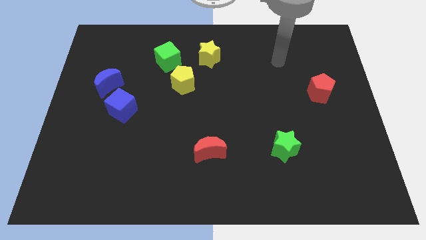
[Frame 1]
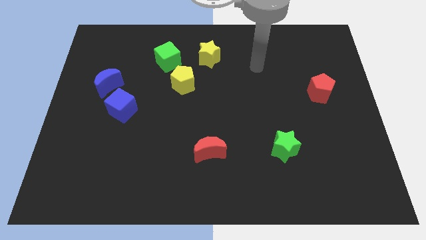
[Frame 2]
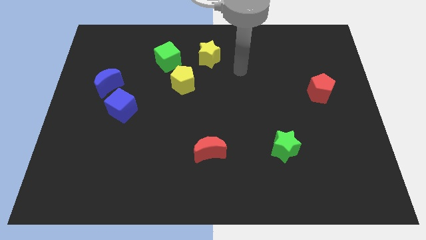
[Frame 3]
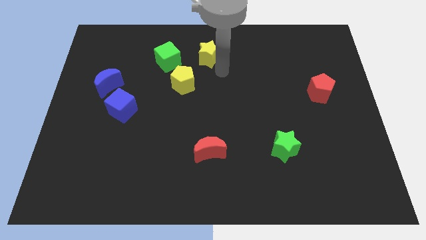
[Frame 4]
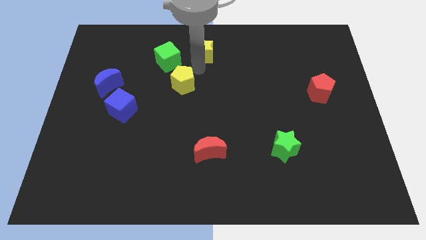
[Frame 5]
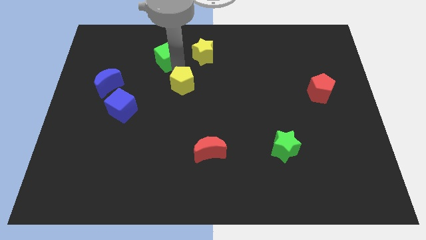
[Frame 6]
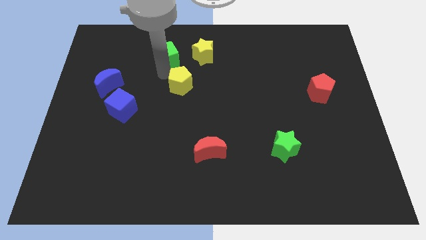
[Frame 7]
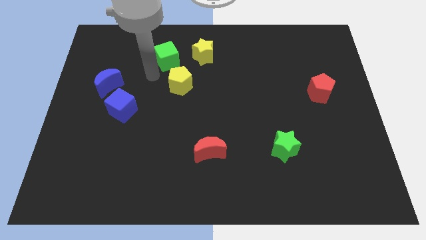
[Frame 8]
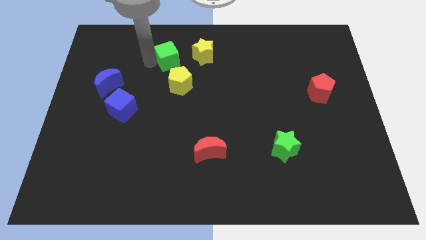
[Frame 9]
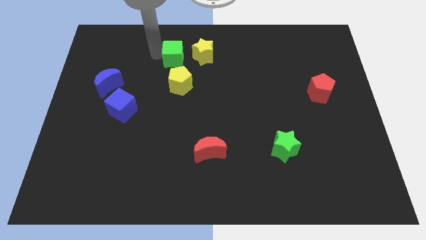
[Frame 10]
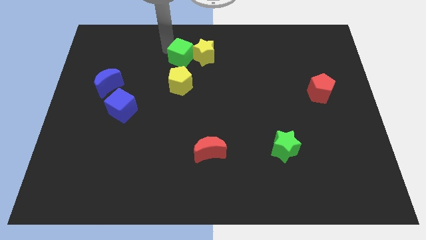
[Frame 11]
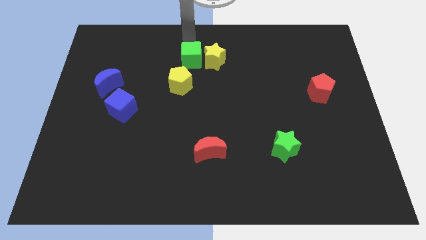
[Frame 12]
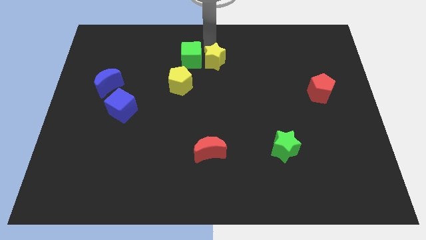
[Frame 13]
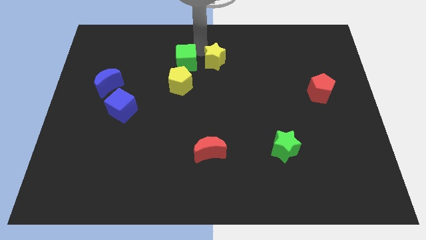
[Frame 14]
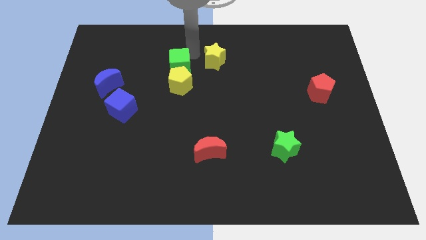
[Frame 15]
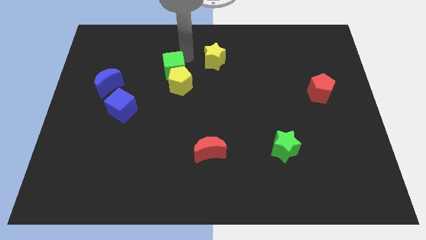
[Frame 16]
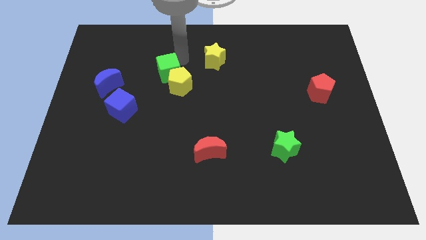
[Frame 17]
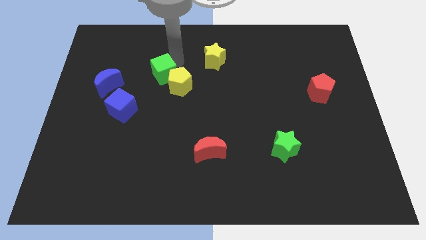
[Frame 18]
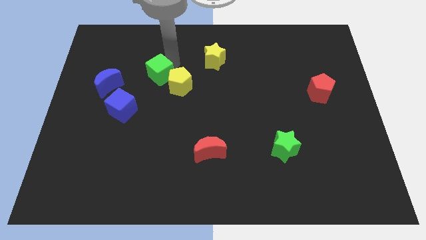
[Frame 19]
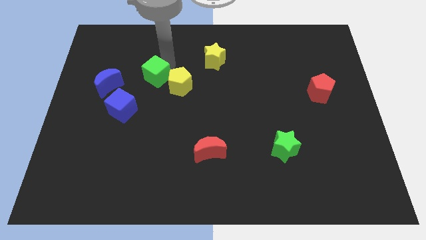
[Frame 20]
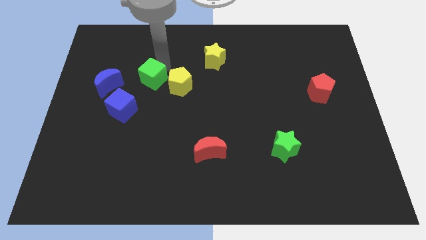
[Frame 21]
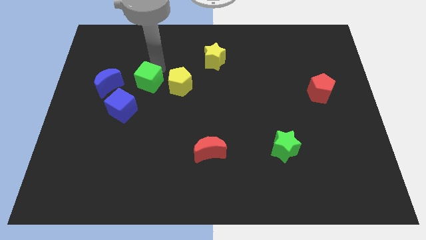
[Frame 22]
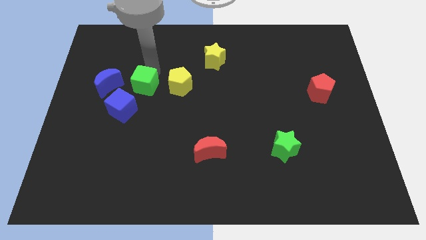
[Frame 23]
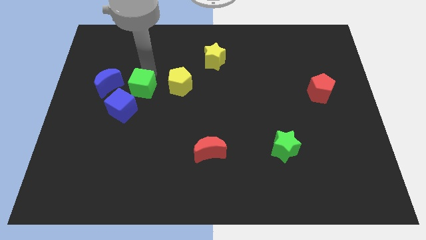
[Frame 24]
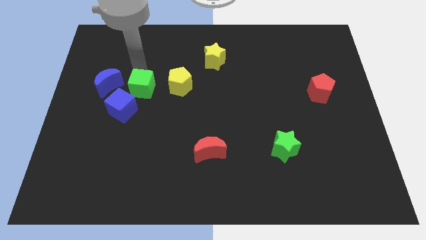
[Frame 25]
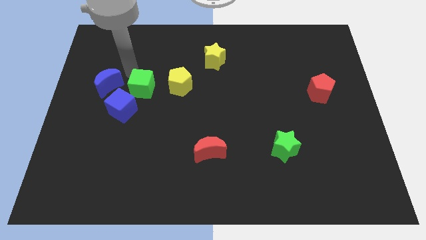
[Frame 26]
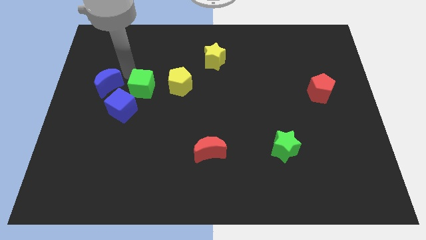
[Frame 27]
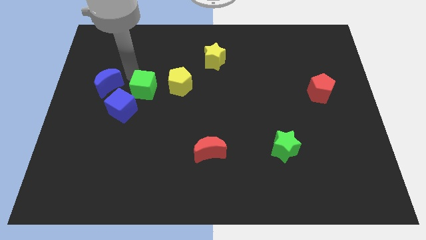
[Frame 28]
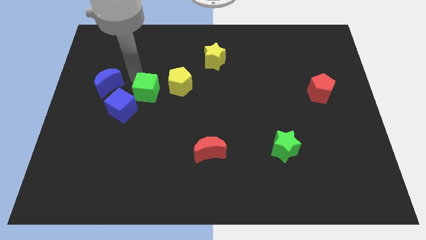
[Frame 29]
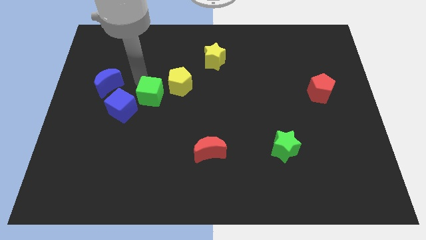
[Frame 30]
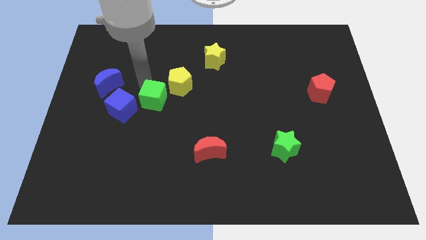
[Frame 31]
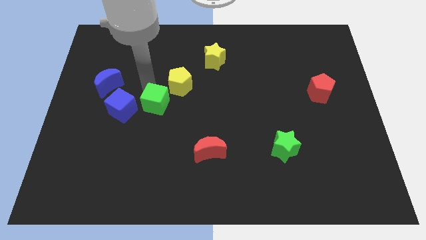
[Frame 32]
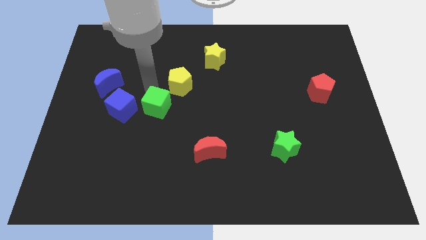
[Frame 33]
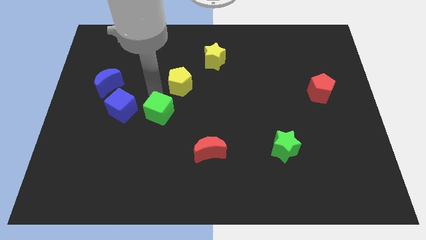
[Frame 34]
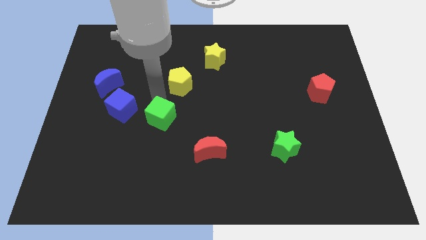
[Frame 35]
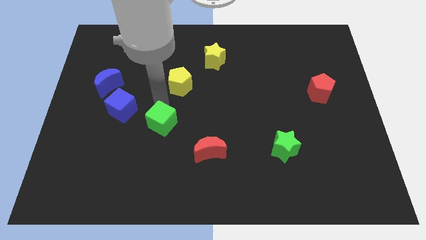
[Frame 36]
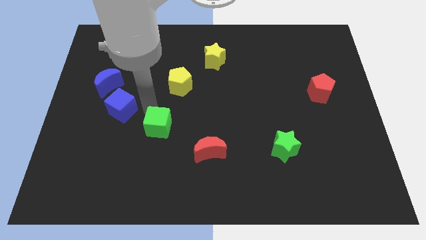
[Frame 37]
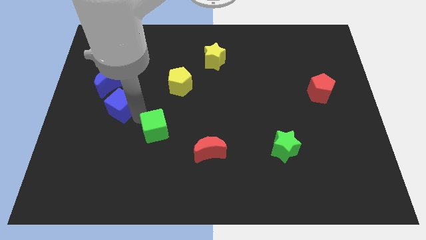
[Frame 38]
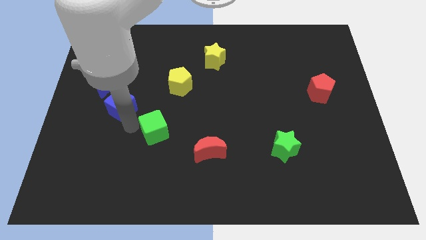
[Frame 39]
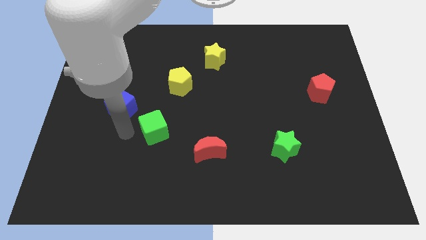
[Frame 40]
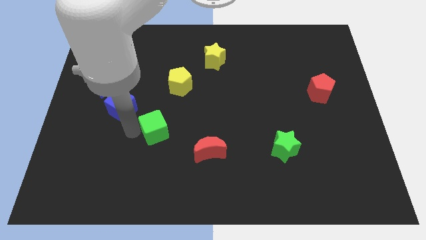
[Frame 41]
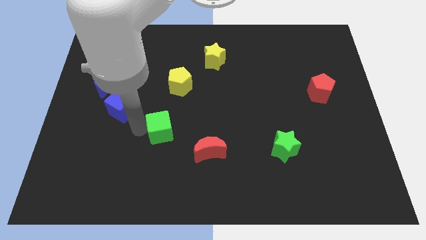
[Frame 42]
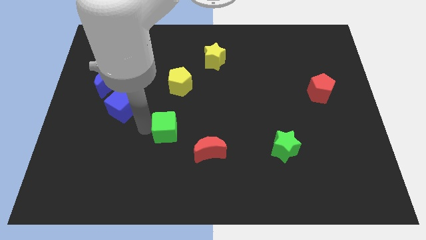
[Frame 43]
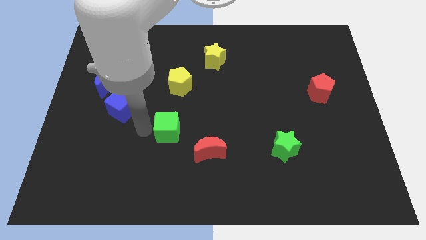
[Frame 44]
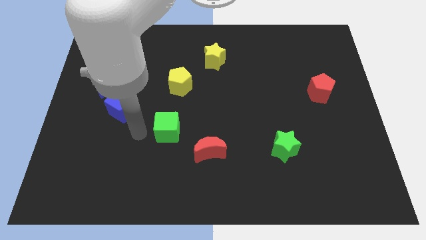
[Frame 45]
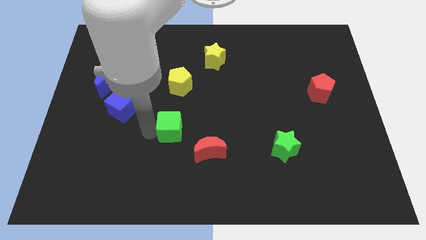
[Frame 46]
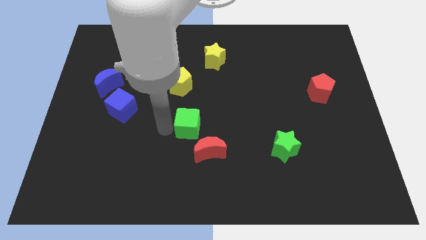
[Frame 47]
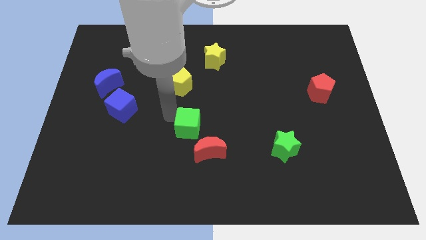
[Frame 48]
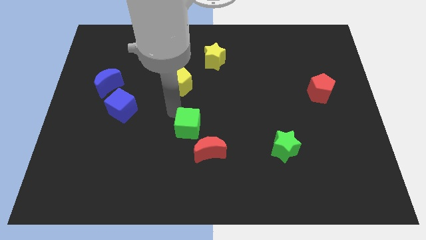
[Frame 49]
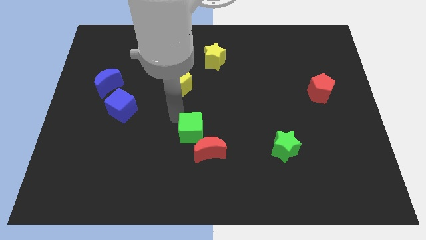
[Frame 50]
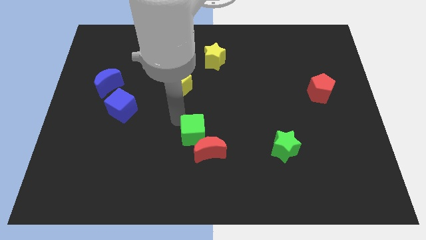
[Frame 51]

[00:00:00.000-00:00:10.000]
slide the green cube close to the red moon

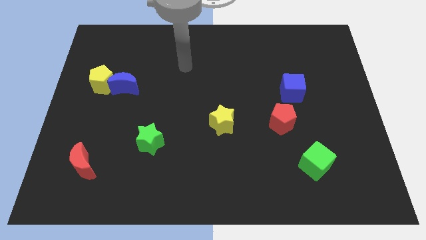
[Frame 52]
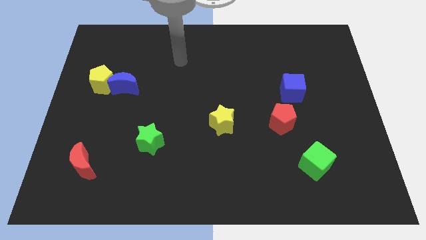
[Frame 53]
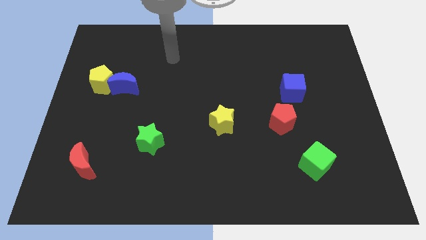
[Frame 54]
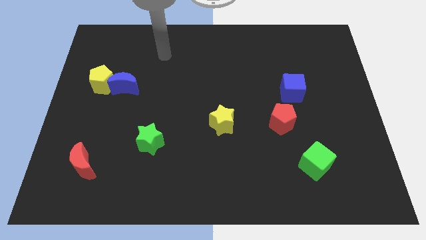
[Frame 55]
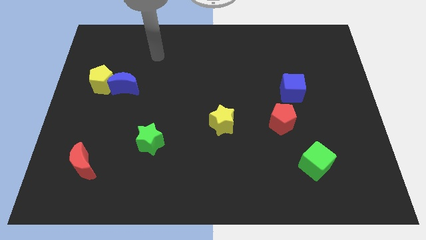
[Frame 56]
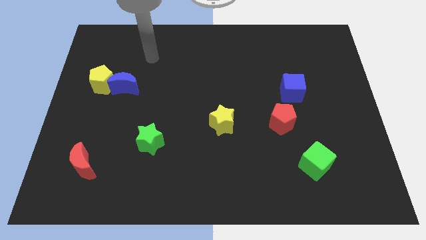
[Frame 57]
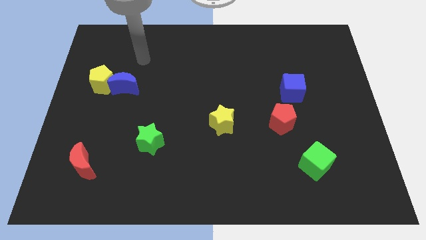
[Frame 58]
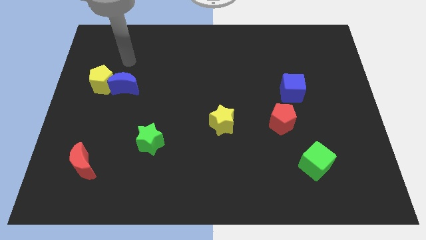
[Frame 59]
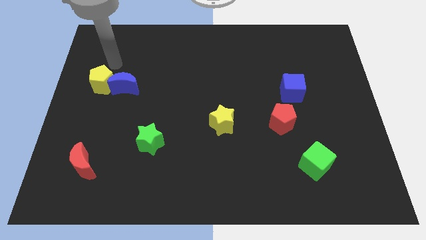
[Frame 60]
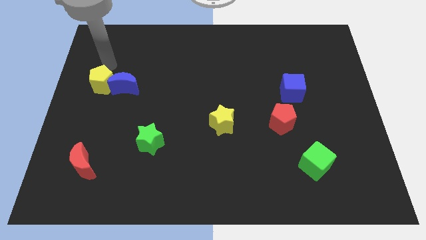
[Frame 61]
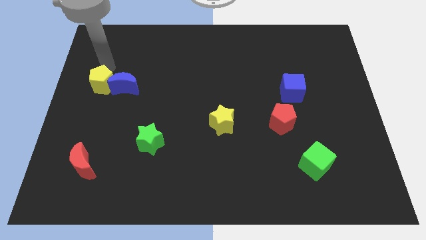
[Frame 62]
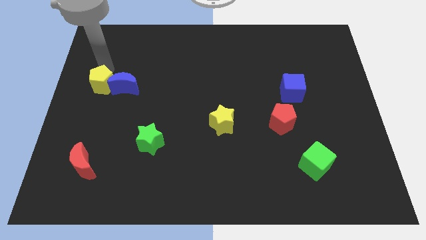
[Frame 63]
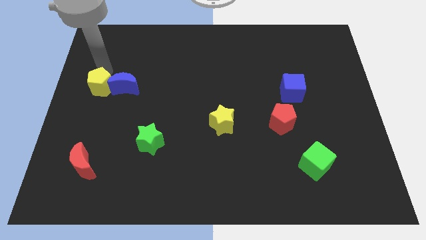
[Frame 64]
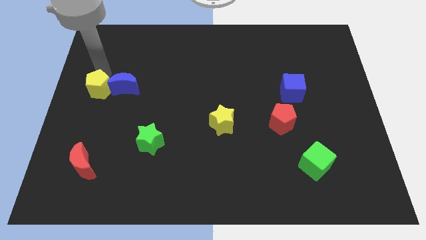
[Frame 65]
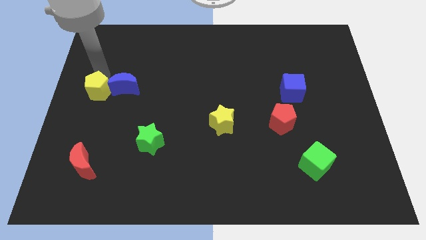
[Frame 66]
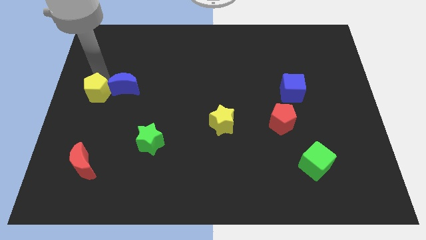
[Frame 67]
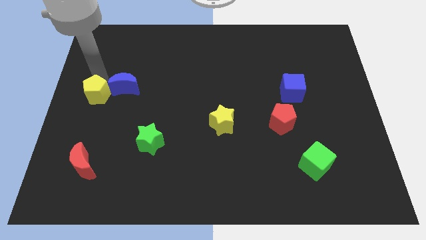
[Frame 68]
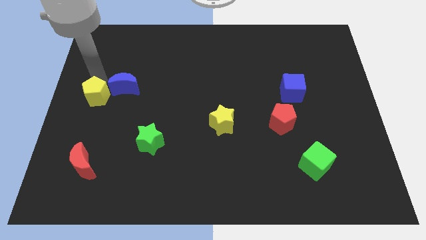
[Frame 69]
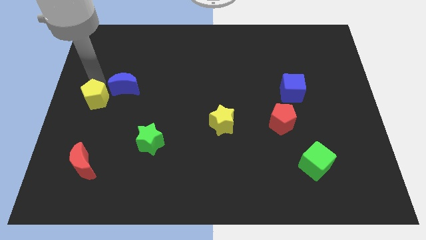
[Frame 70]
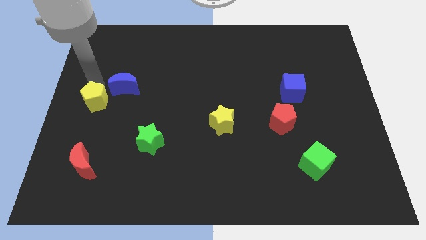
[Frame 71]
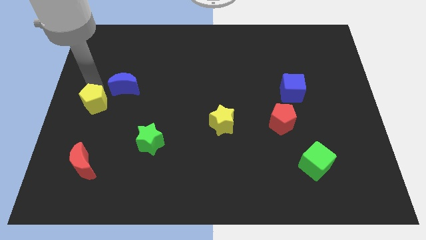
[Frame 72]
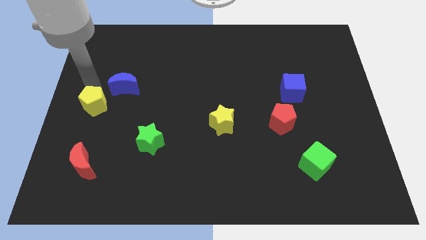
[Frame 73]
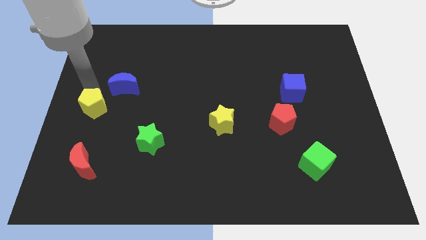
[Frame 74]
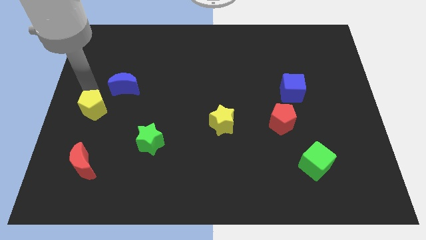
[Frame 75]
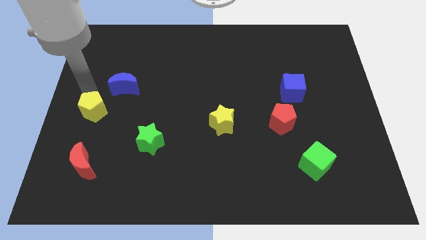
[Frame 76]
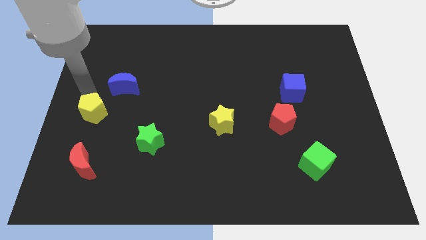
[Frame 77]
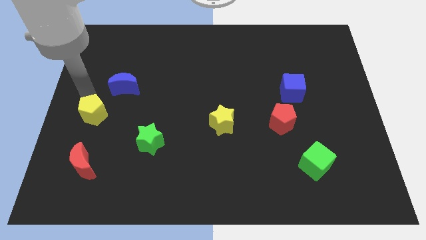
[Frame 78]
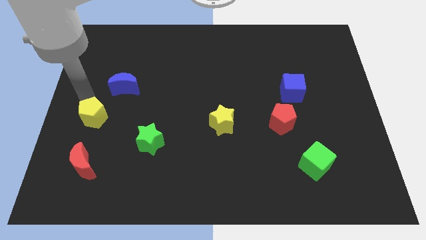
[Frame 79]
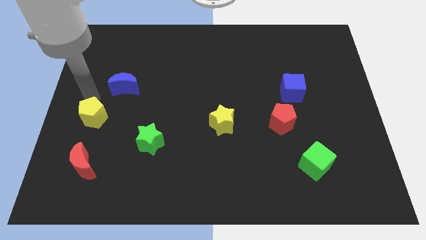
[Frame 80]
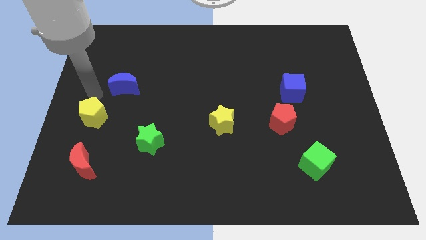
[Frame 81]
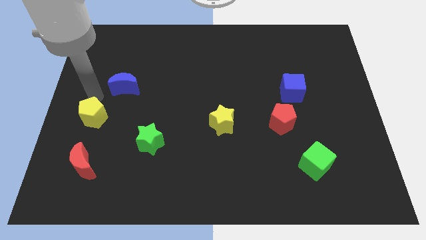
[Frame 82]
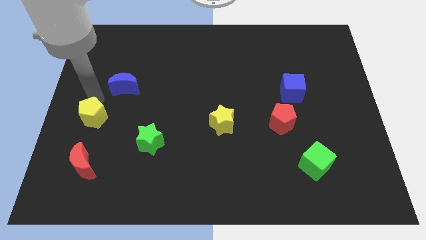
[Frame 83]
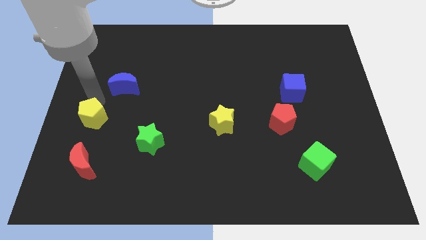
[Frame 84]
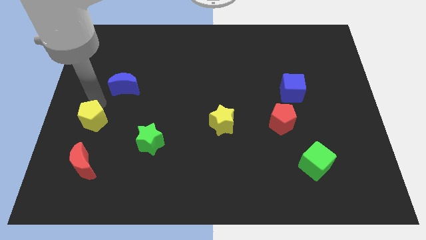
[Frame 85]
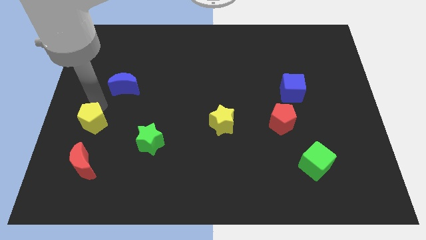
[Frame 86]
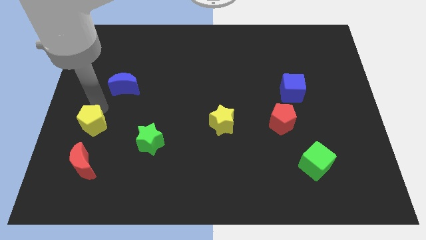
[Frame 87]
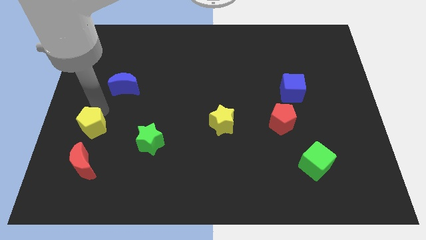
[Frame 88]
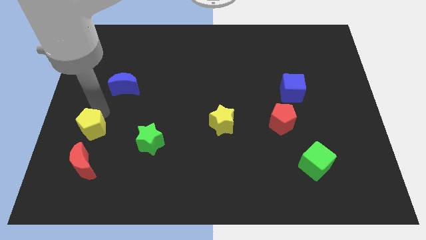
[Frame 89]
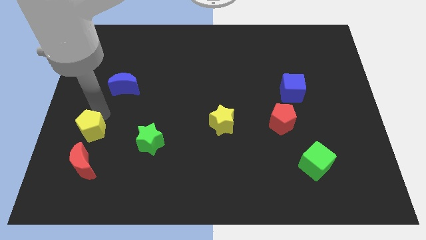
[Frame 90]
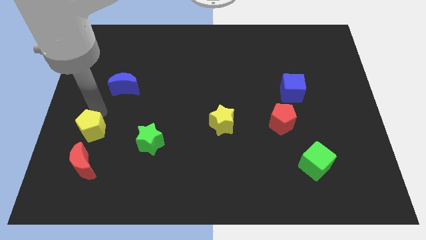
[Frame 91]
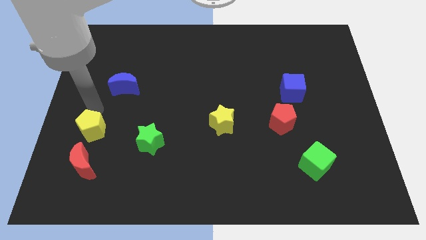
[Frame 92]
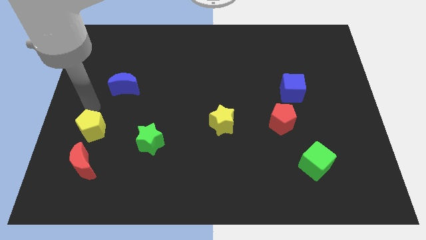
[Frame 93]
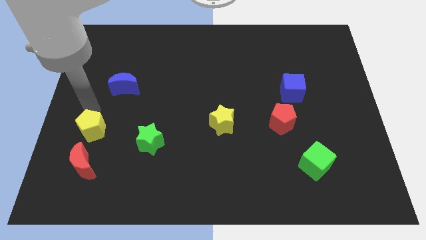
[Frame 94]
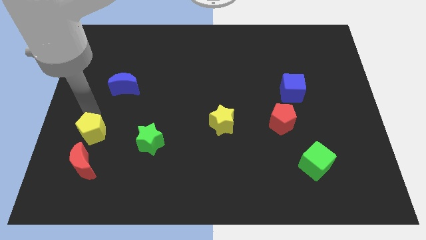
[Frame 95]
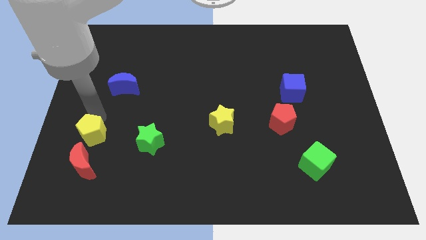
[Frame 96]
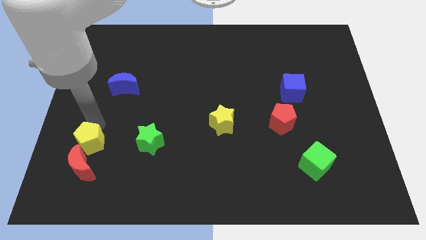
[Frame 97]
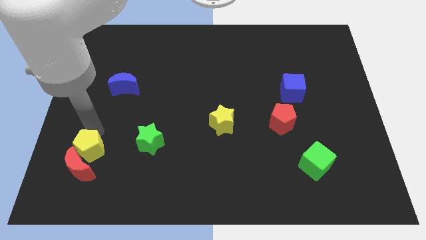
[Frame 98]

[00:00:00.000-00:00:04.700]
push the yellow pentagon towards the red moon
